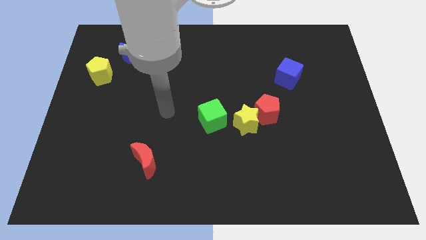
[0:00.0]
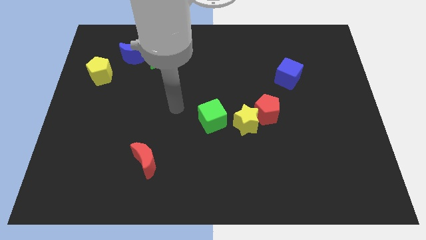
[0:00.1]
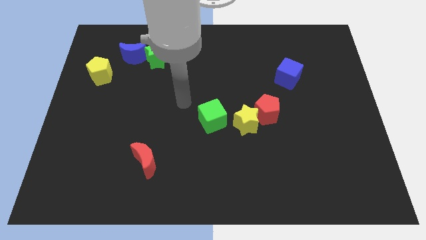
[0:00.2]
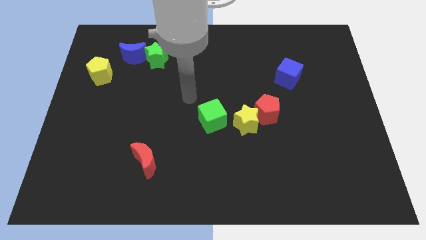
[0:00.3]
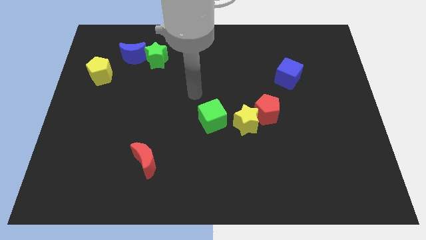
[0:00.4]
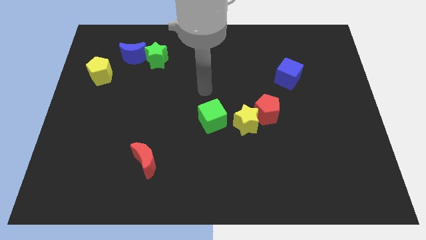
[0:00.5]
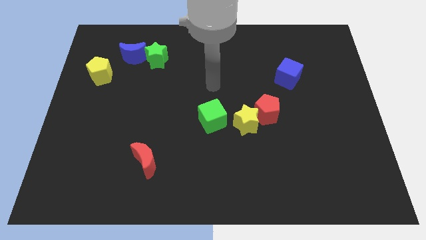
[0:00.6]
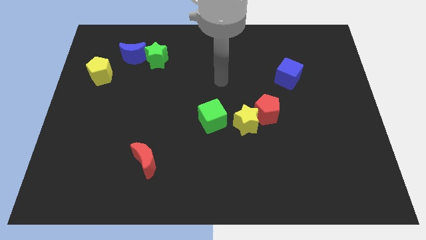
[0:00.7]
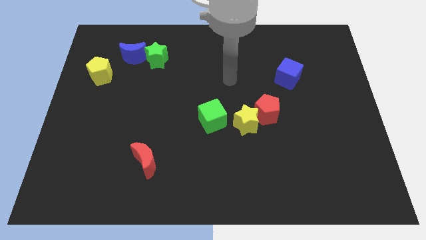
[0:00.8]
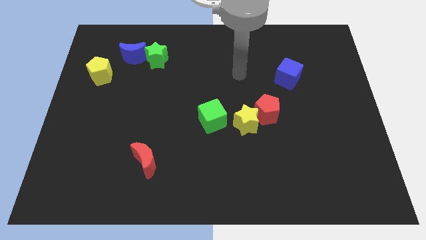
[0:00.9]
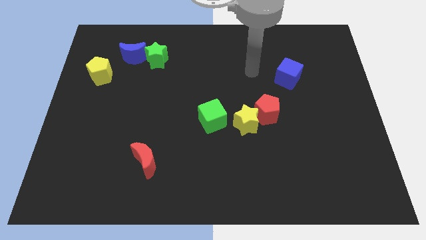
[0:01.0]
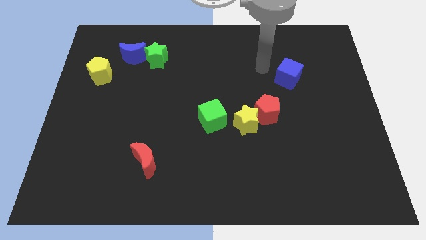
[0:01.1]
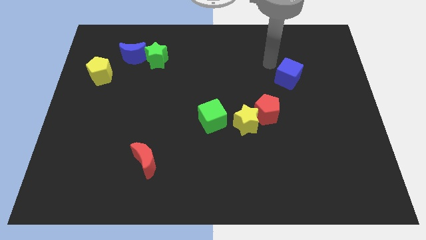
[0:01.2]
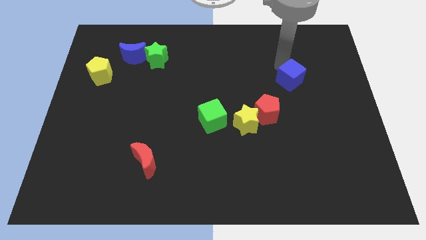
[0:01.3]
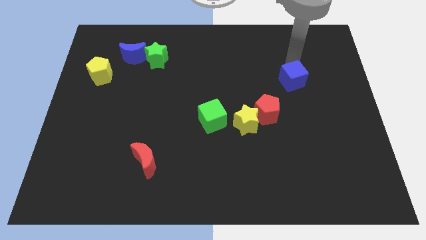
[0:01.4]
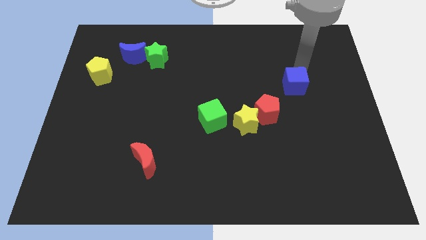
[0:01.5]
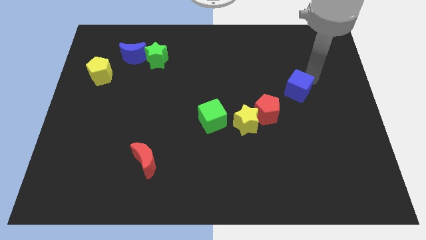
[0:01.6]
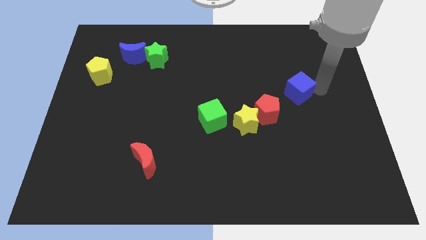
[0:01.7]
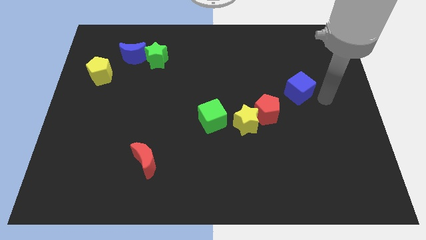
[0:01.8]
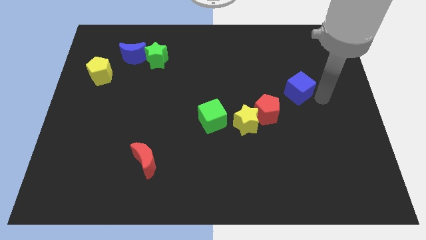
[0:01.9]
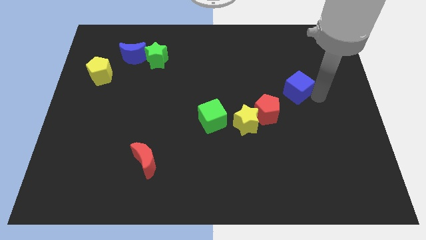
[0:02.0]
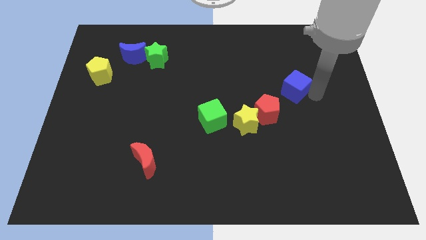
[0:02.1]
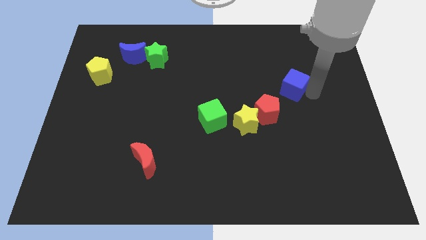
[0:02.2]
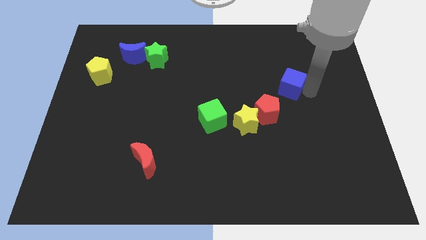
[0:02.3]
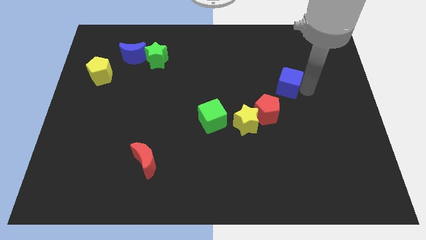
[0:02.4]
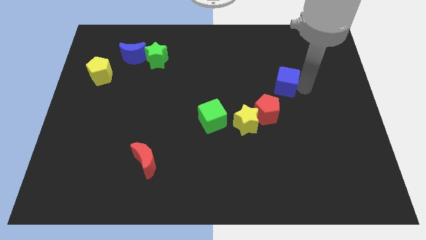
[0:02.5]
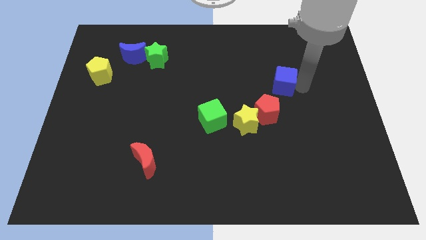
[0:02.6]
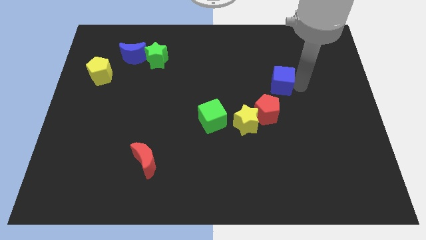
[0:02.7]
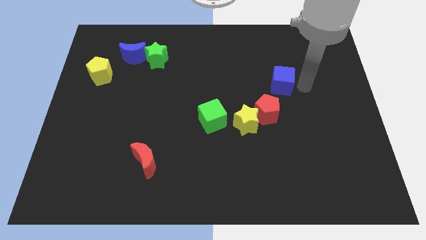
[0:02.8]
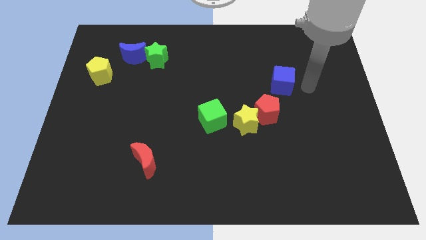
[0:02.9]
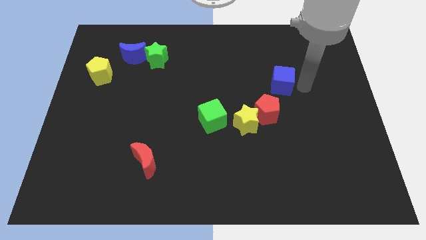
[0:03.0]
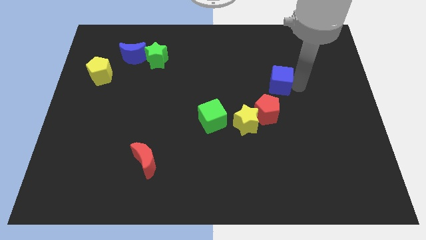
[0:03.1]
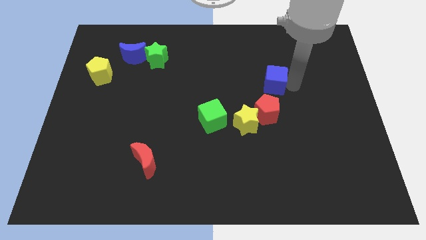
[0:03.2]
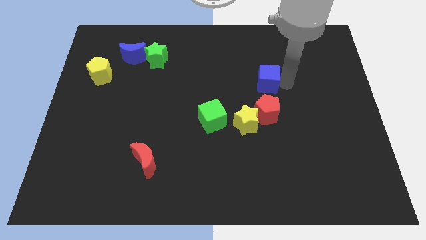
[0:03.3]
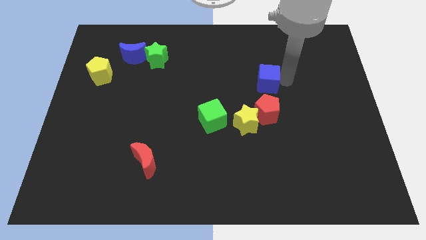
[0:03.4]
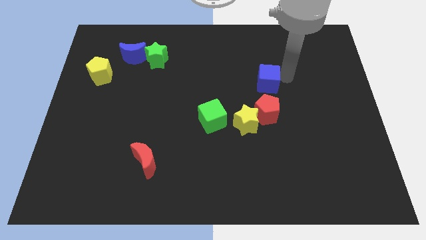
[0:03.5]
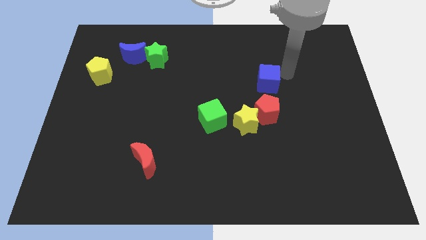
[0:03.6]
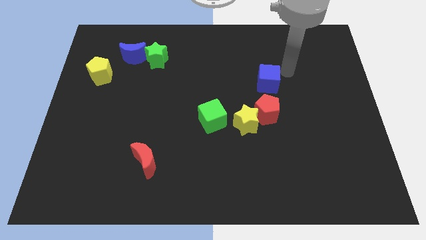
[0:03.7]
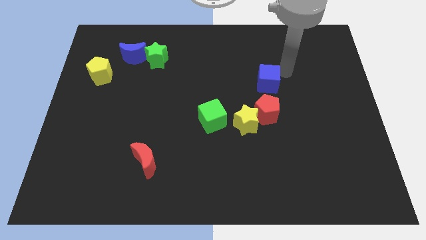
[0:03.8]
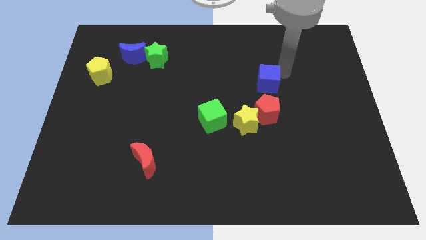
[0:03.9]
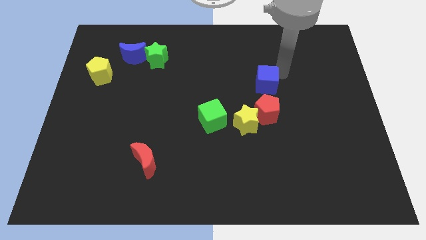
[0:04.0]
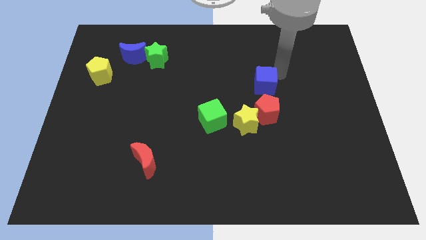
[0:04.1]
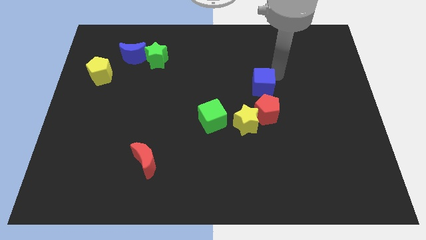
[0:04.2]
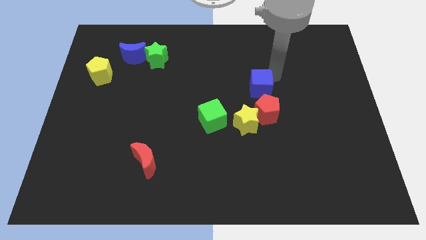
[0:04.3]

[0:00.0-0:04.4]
move the blue cube to the top left side of the red pentagon

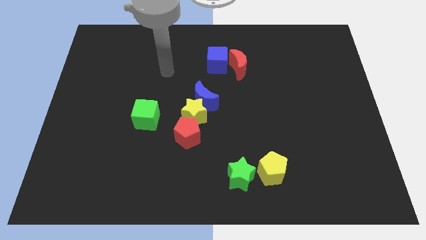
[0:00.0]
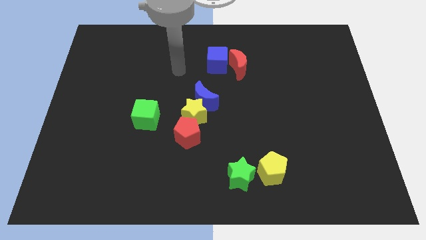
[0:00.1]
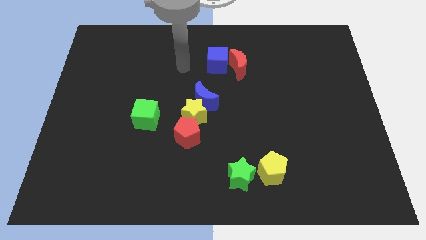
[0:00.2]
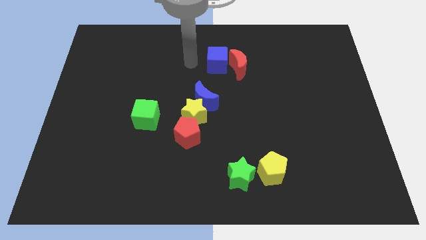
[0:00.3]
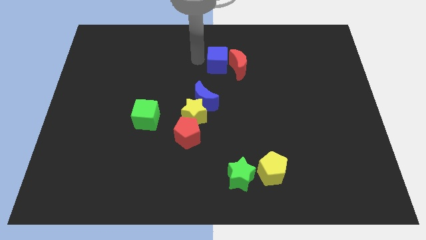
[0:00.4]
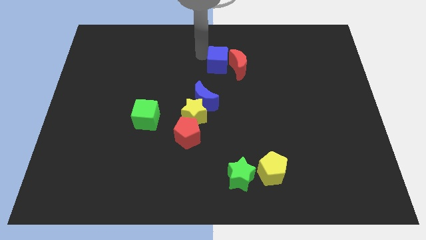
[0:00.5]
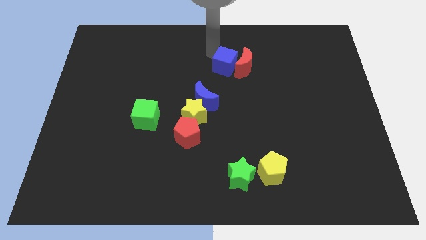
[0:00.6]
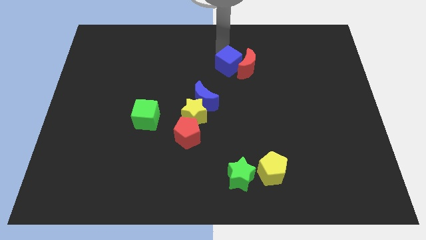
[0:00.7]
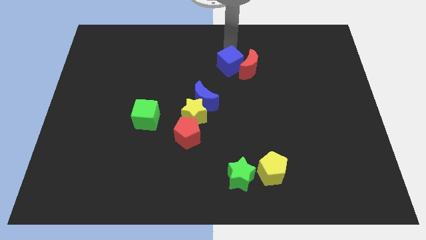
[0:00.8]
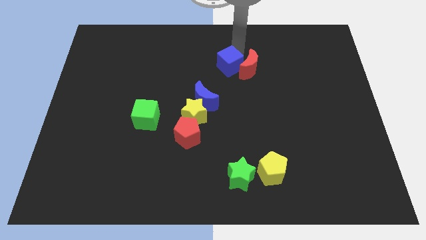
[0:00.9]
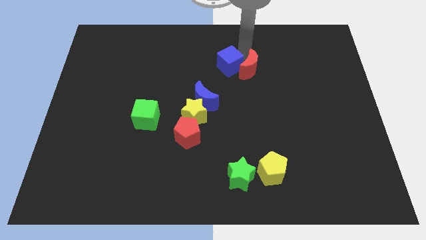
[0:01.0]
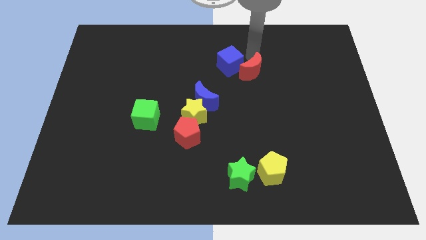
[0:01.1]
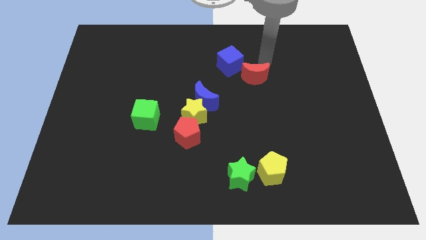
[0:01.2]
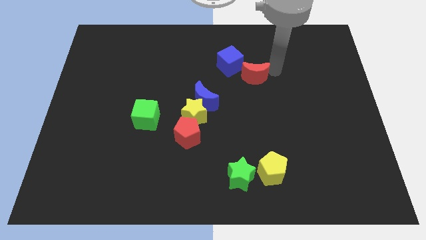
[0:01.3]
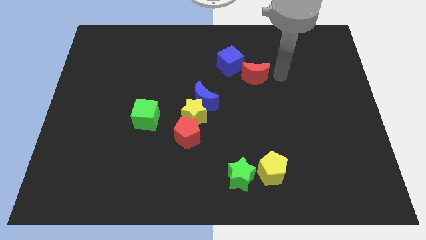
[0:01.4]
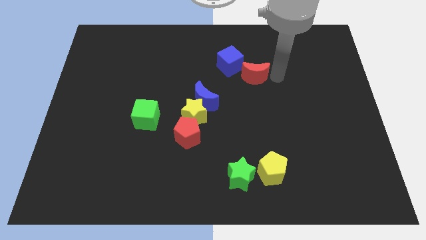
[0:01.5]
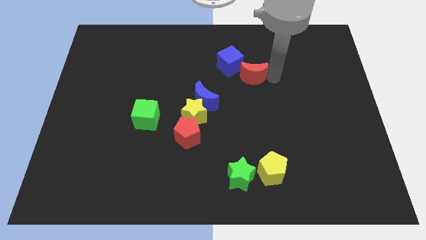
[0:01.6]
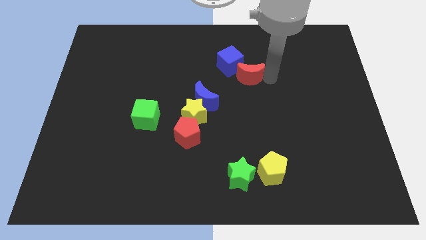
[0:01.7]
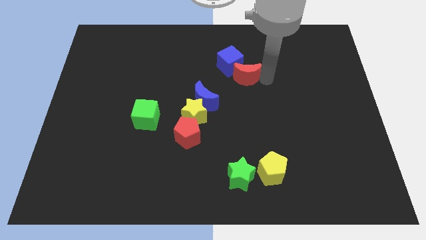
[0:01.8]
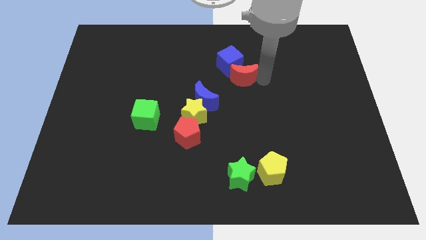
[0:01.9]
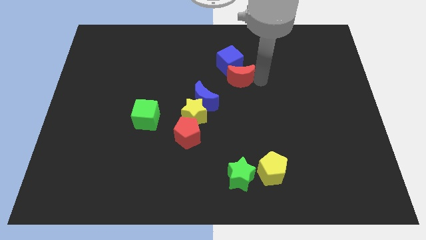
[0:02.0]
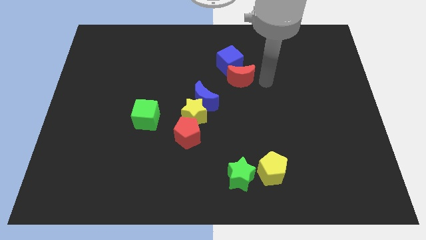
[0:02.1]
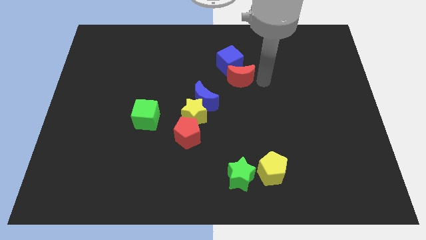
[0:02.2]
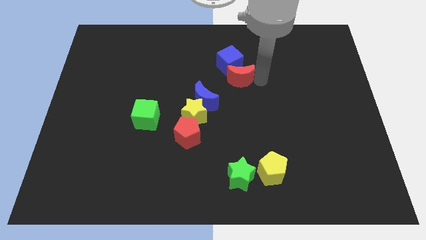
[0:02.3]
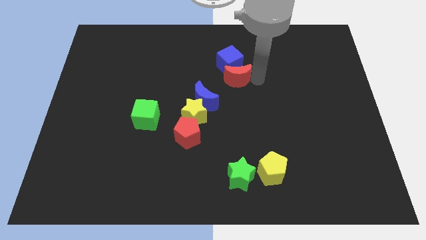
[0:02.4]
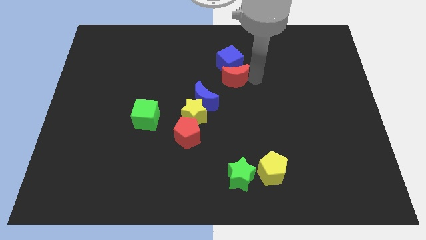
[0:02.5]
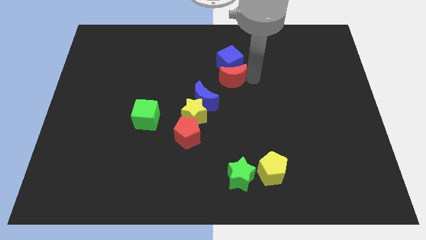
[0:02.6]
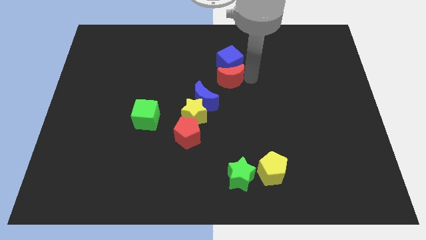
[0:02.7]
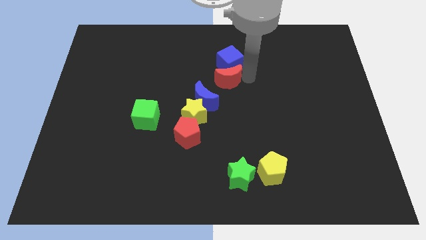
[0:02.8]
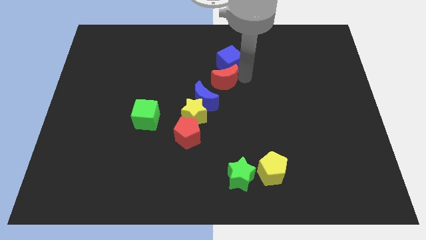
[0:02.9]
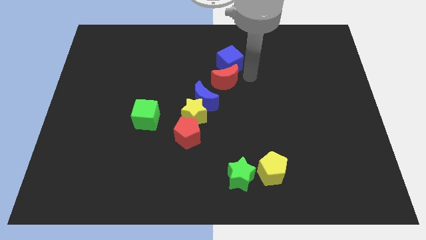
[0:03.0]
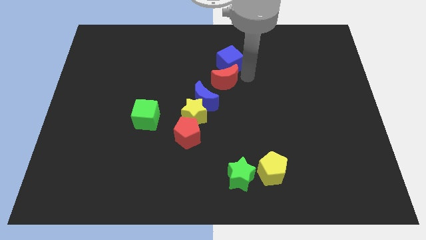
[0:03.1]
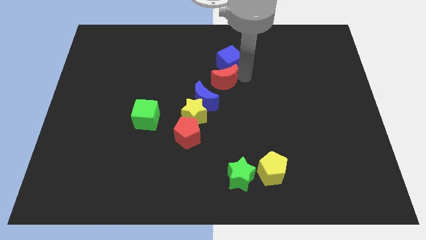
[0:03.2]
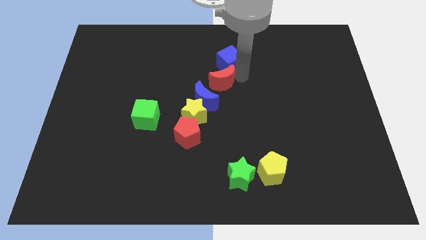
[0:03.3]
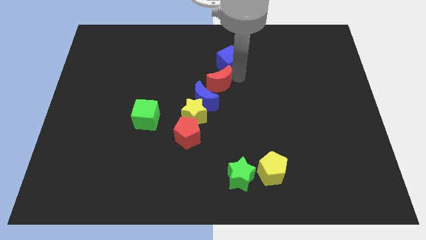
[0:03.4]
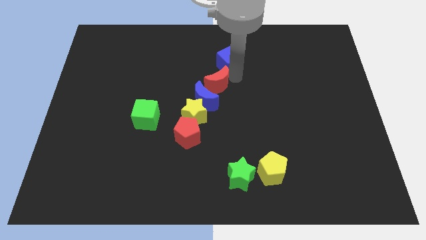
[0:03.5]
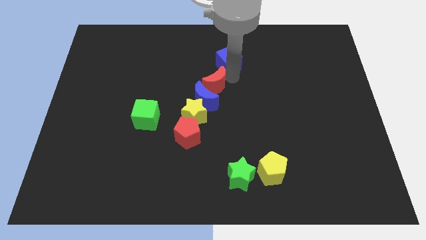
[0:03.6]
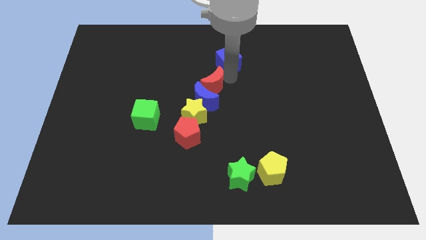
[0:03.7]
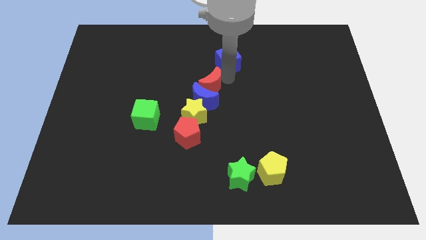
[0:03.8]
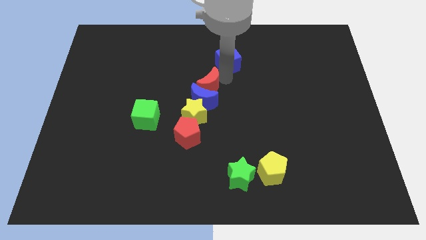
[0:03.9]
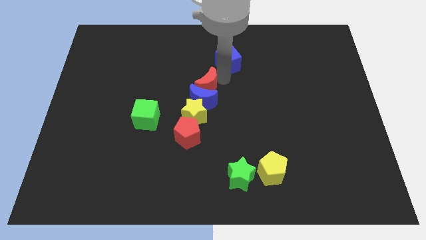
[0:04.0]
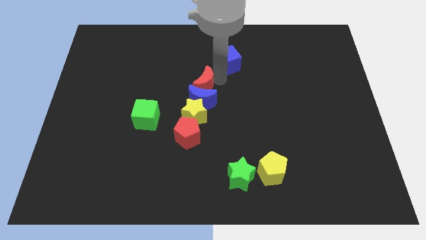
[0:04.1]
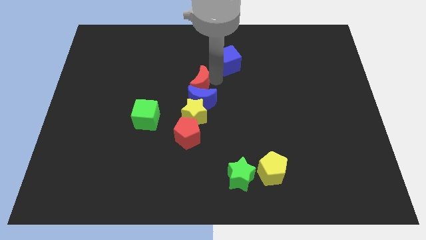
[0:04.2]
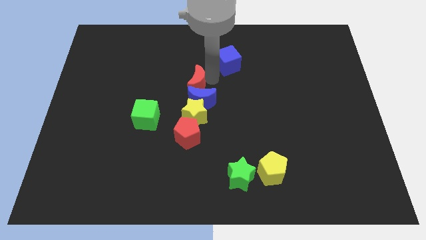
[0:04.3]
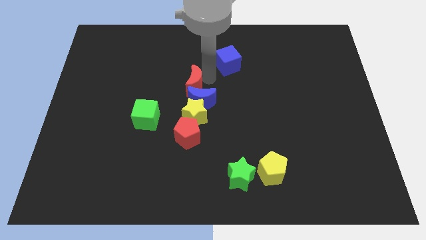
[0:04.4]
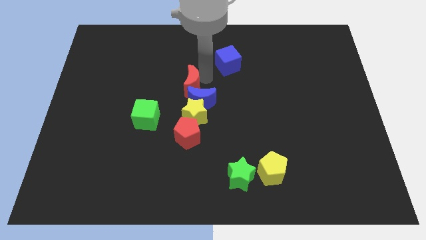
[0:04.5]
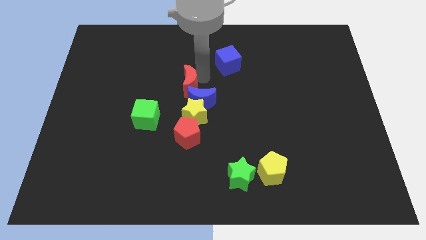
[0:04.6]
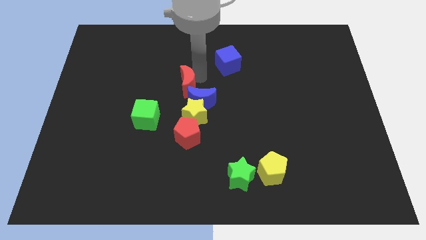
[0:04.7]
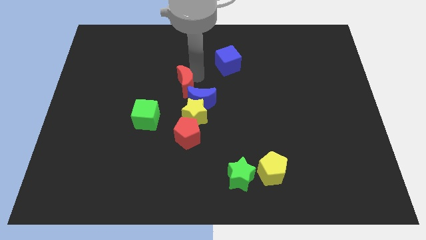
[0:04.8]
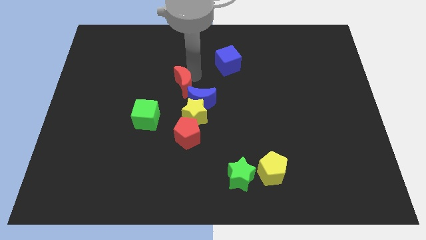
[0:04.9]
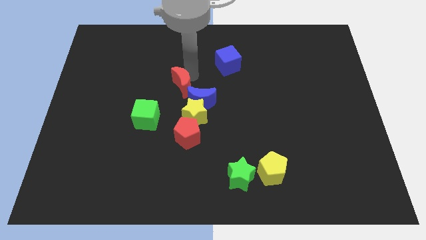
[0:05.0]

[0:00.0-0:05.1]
move the red moon to the top left side of the yellow star
